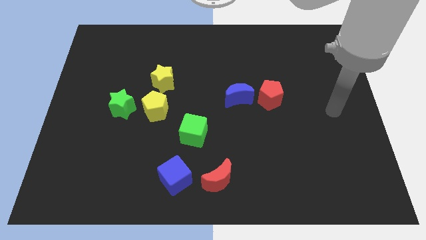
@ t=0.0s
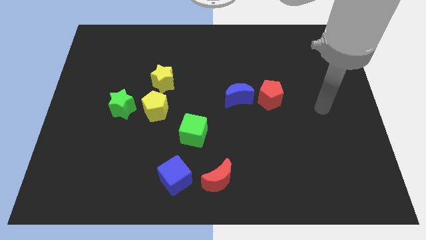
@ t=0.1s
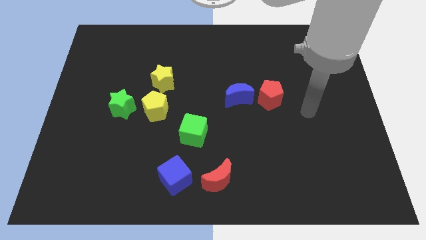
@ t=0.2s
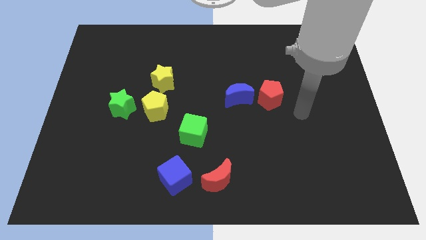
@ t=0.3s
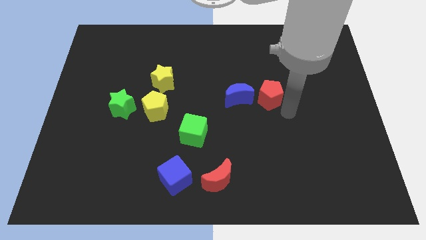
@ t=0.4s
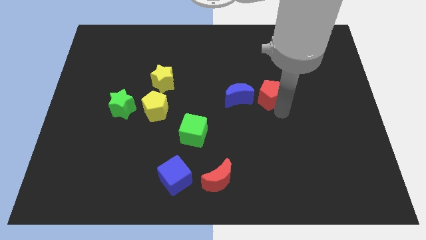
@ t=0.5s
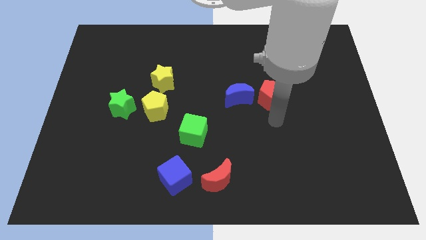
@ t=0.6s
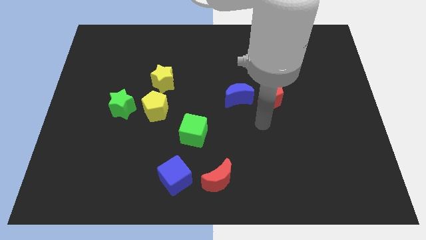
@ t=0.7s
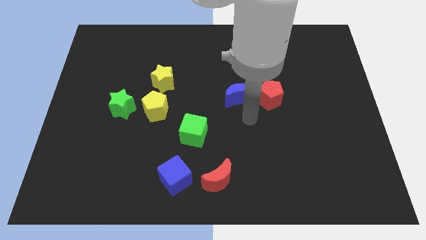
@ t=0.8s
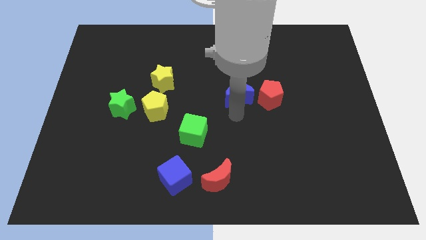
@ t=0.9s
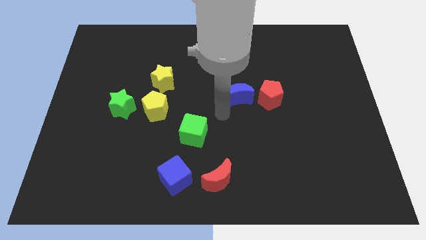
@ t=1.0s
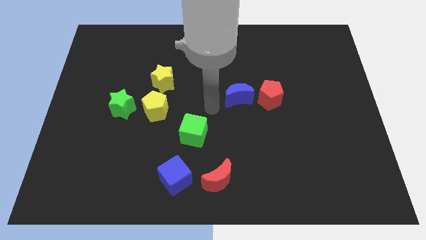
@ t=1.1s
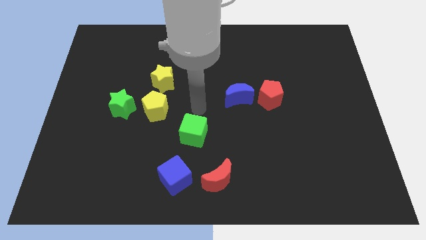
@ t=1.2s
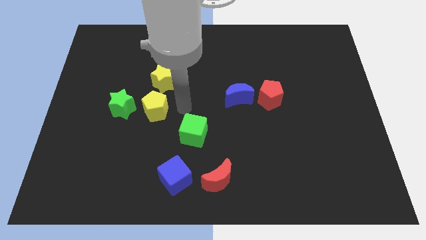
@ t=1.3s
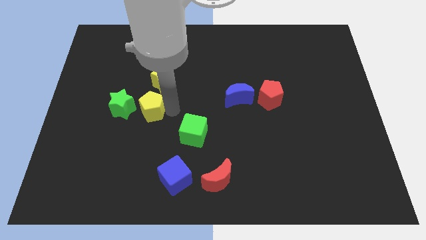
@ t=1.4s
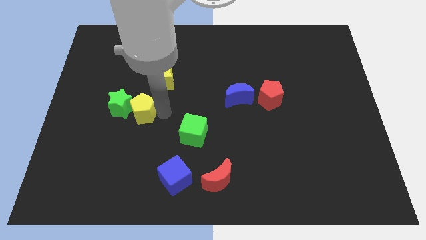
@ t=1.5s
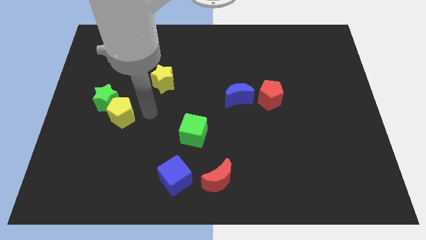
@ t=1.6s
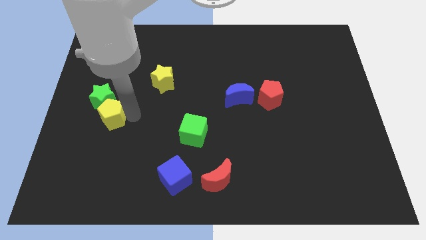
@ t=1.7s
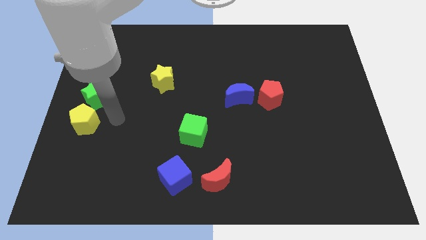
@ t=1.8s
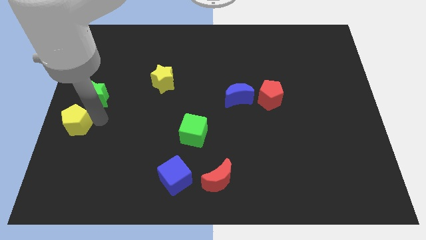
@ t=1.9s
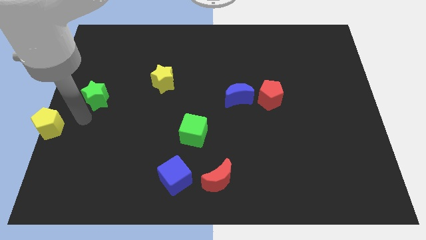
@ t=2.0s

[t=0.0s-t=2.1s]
move the green star away from the yellow pentagon

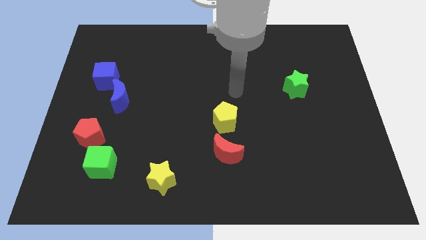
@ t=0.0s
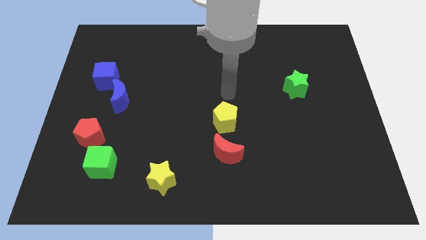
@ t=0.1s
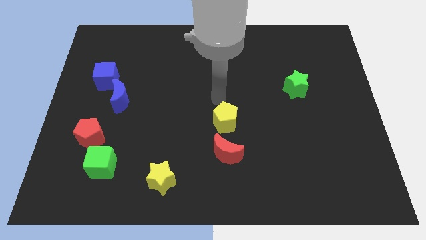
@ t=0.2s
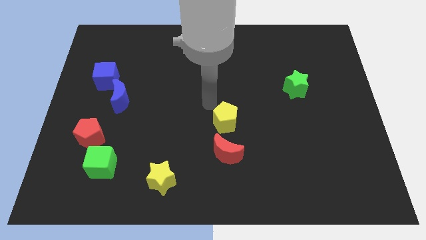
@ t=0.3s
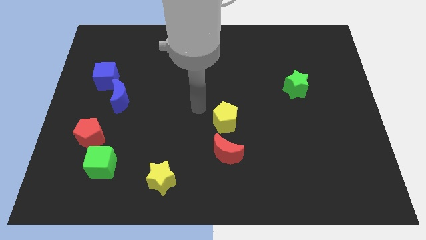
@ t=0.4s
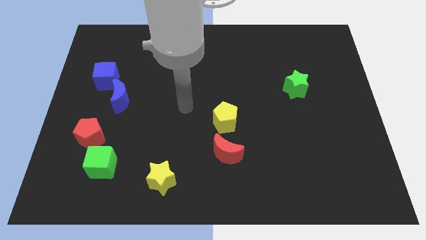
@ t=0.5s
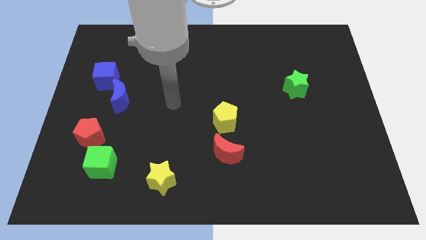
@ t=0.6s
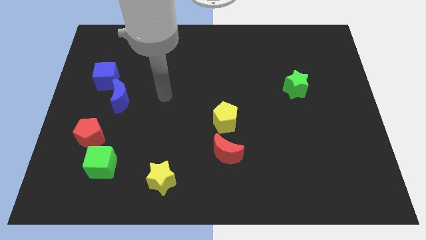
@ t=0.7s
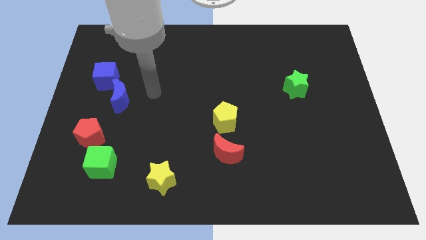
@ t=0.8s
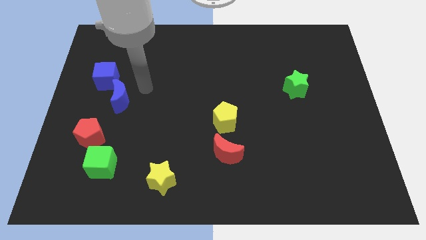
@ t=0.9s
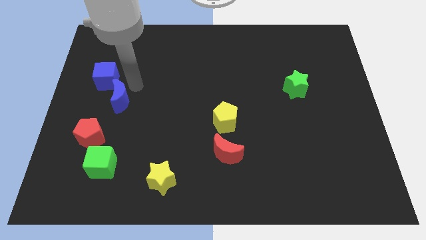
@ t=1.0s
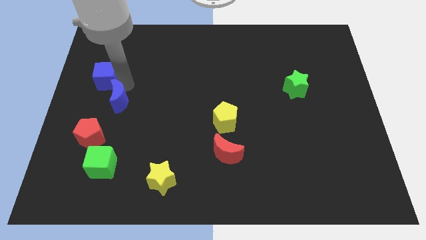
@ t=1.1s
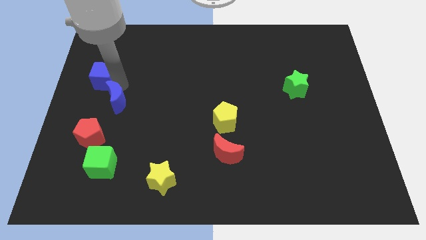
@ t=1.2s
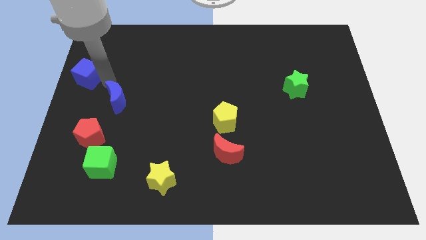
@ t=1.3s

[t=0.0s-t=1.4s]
pull the blue moon apart from the blue cube

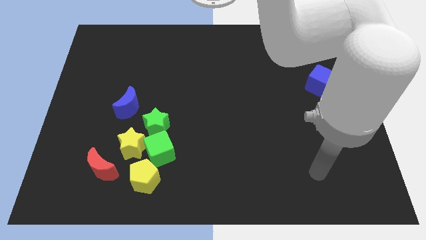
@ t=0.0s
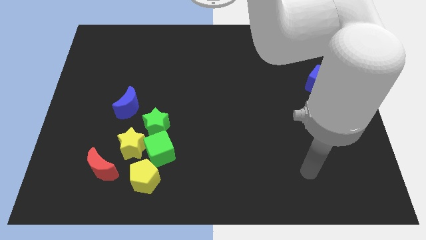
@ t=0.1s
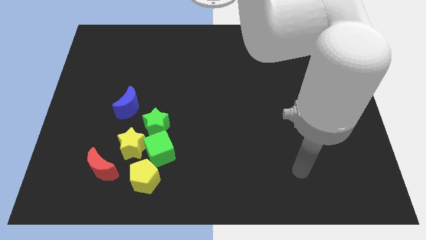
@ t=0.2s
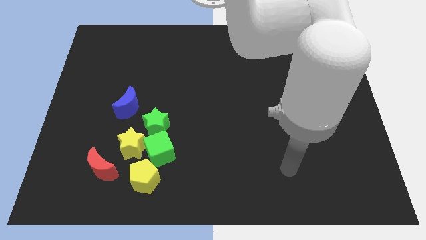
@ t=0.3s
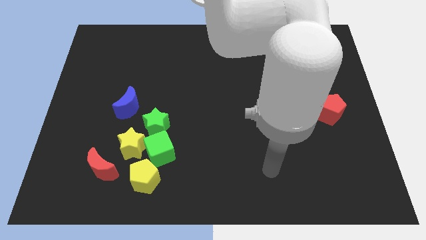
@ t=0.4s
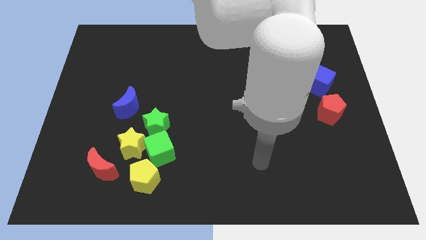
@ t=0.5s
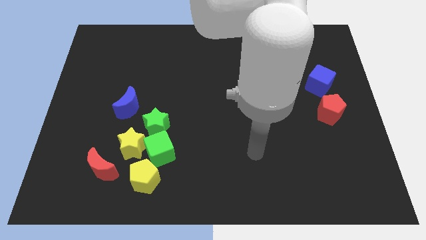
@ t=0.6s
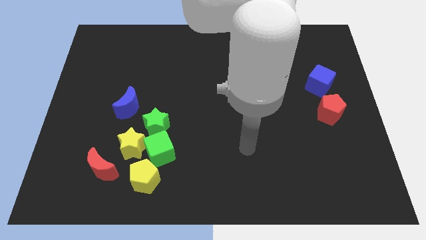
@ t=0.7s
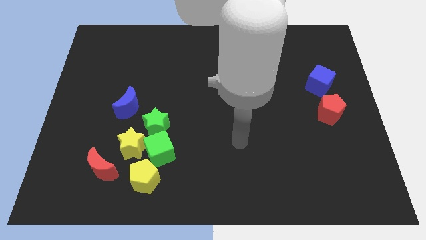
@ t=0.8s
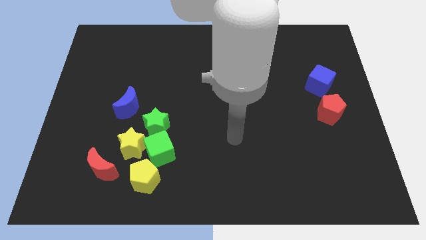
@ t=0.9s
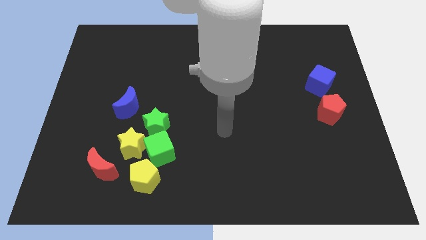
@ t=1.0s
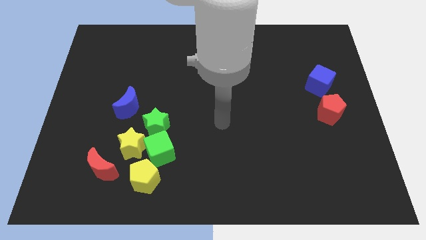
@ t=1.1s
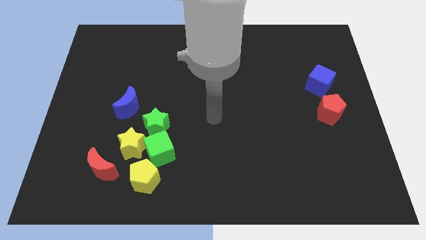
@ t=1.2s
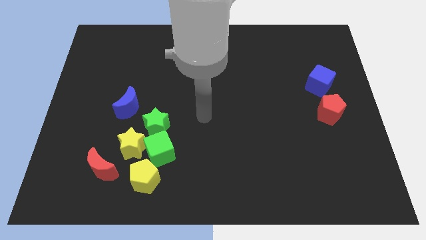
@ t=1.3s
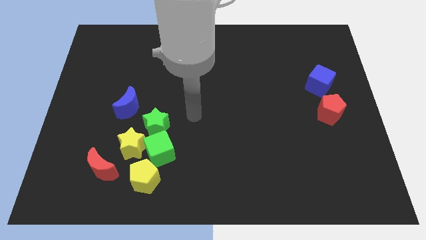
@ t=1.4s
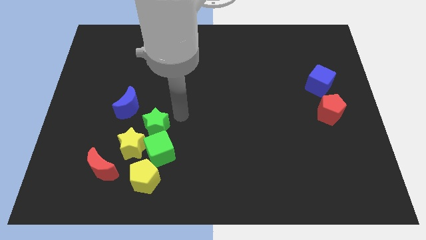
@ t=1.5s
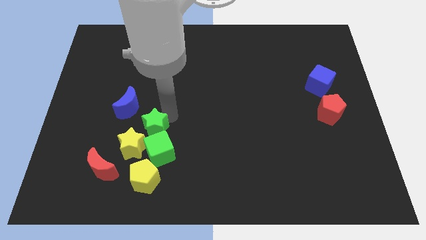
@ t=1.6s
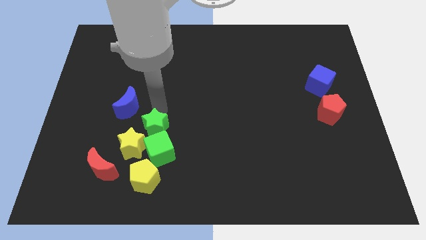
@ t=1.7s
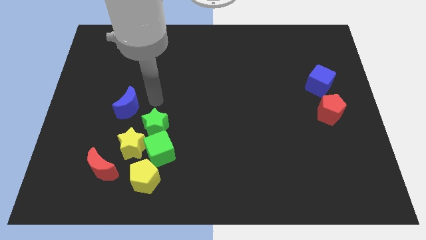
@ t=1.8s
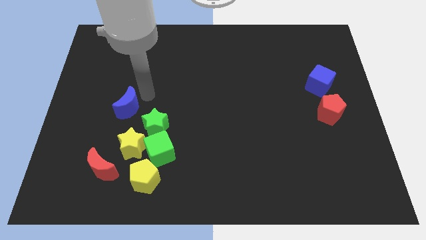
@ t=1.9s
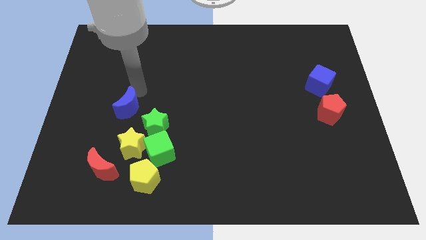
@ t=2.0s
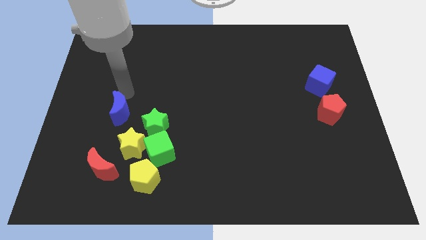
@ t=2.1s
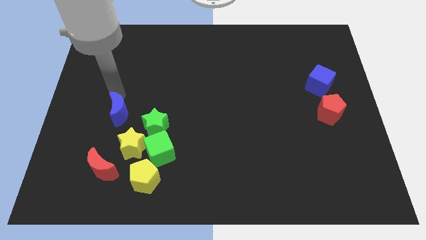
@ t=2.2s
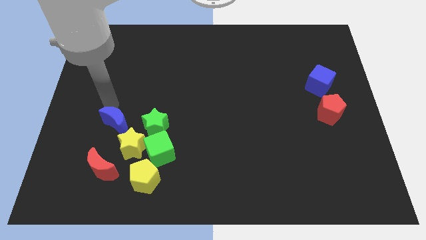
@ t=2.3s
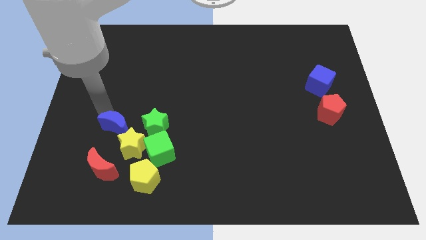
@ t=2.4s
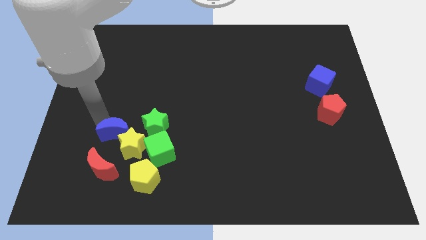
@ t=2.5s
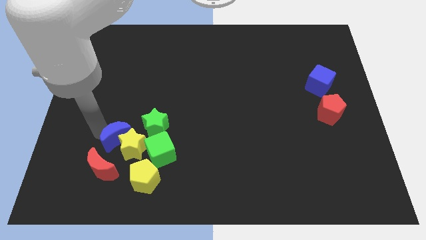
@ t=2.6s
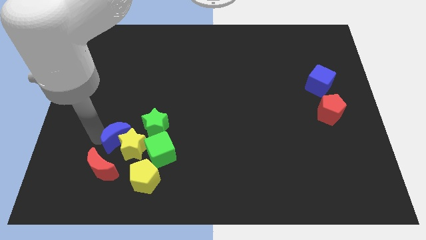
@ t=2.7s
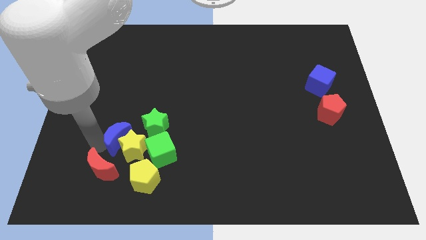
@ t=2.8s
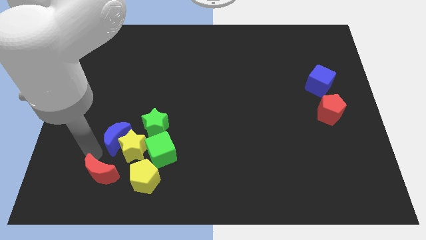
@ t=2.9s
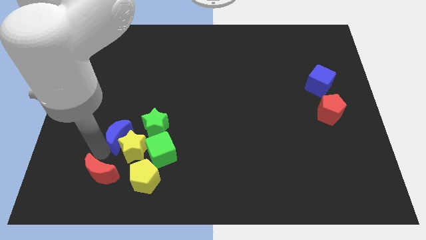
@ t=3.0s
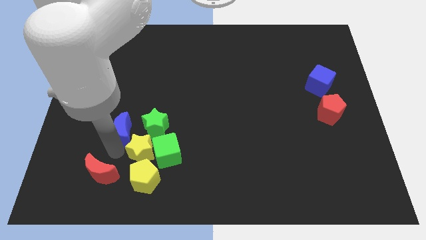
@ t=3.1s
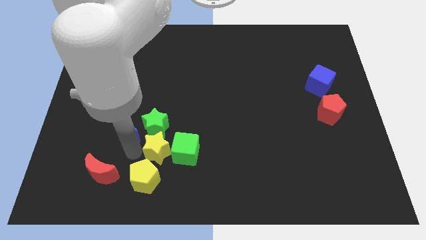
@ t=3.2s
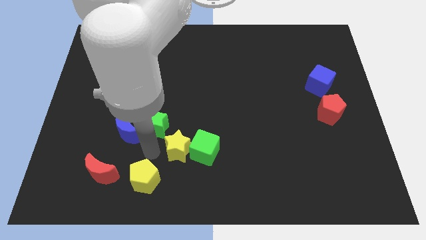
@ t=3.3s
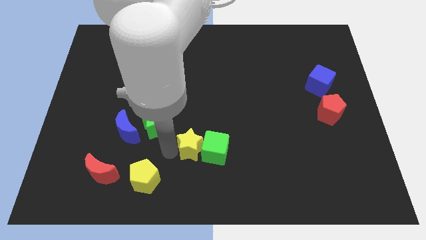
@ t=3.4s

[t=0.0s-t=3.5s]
move the green cube away from the group

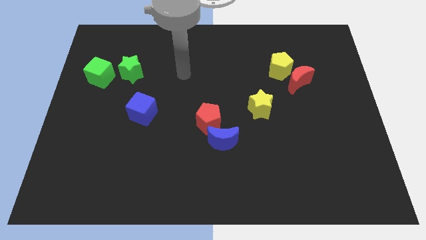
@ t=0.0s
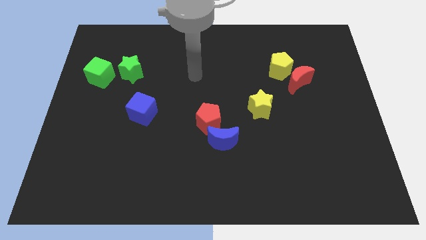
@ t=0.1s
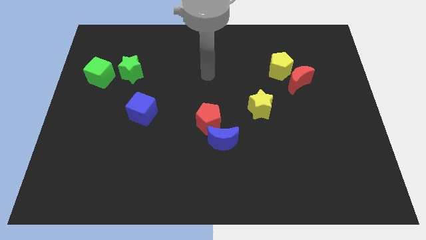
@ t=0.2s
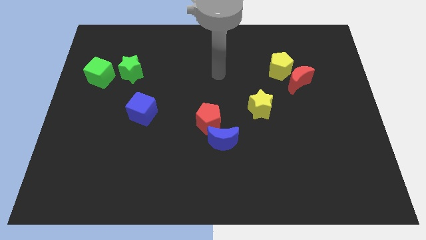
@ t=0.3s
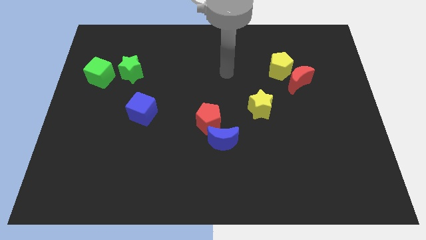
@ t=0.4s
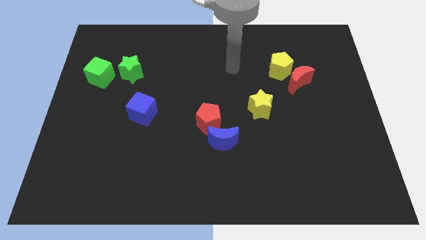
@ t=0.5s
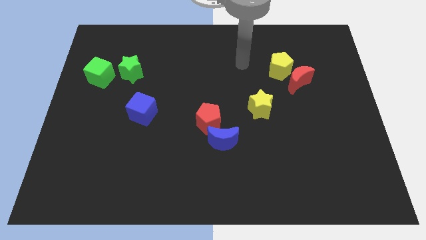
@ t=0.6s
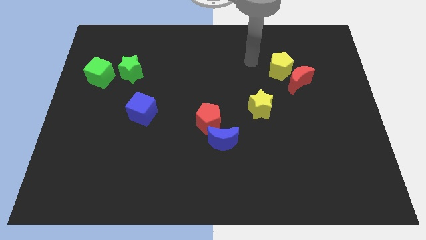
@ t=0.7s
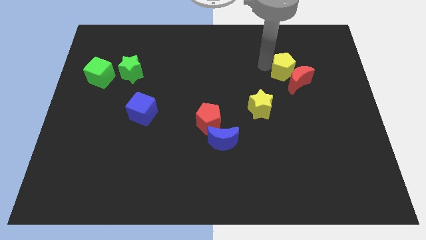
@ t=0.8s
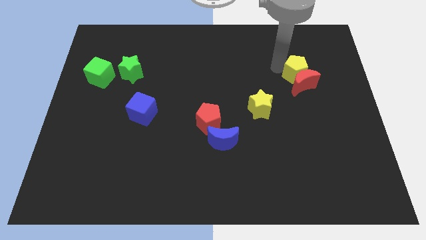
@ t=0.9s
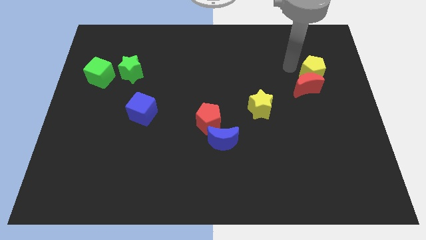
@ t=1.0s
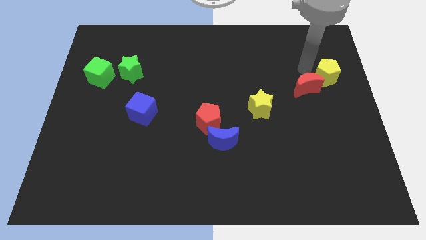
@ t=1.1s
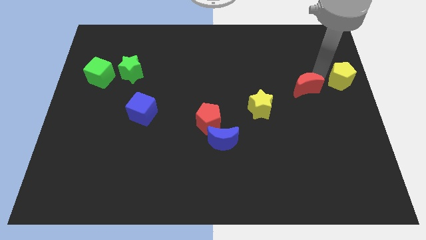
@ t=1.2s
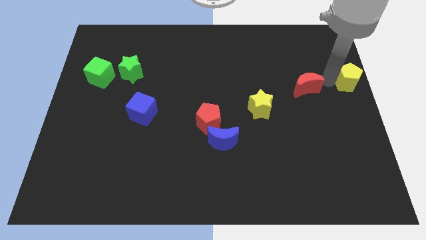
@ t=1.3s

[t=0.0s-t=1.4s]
separate the red moon from the yellow pentagon

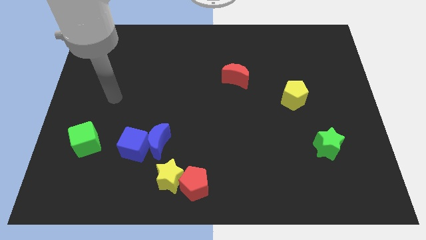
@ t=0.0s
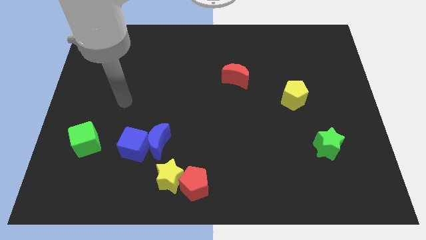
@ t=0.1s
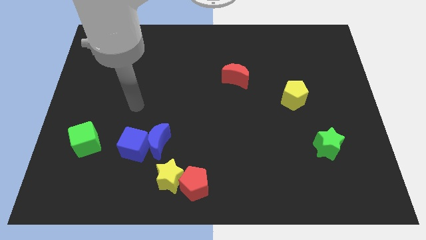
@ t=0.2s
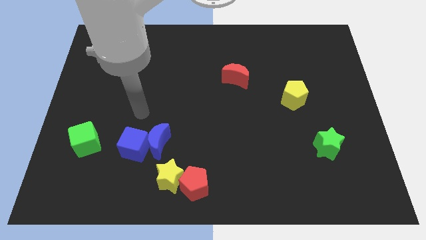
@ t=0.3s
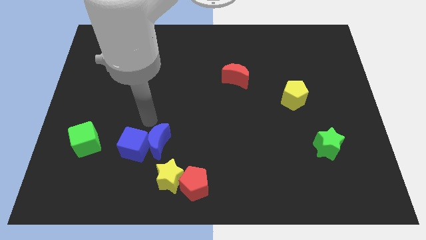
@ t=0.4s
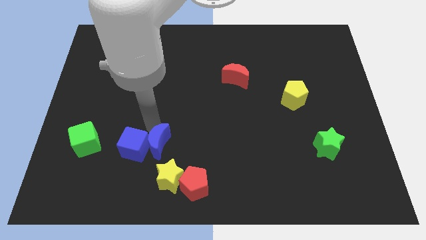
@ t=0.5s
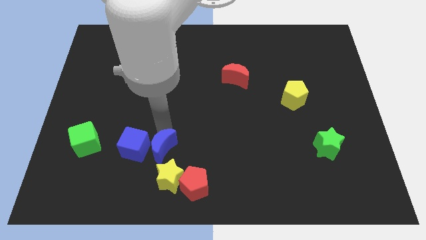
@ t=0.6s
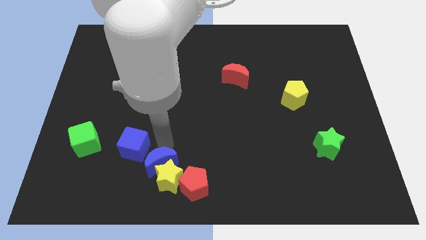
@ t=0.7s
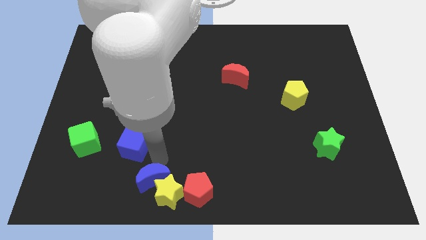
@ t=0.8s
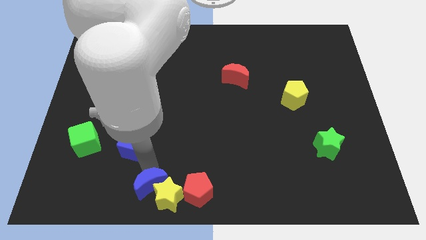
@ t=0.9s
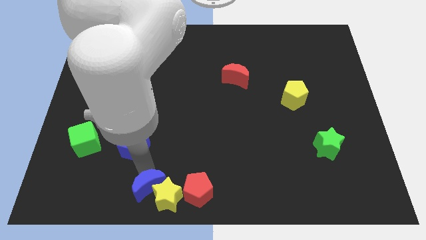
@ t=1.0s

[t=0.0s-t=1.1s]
separate the blue cube from the blue moon
